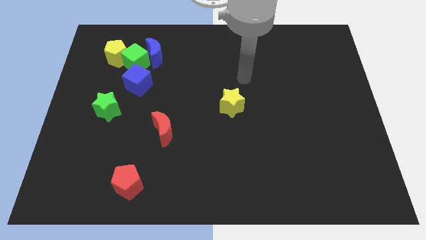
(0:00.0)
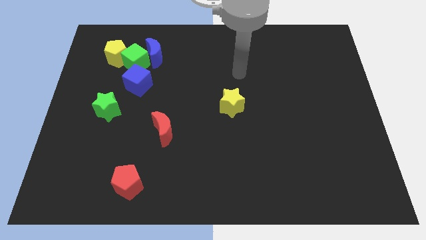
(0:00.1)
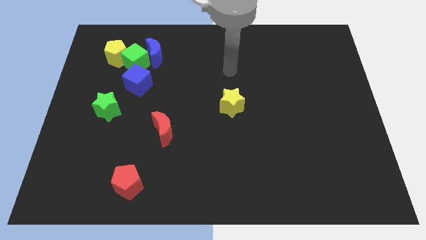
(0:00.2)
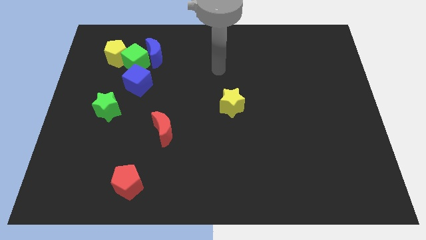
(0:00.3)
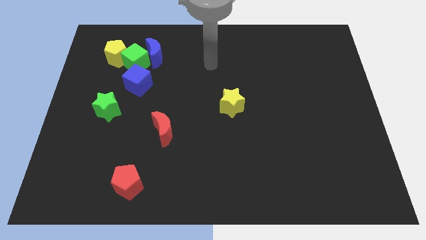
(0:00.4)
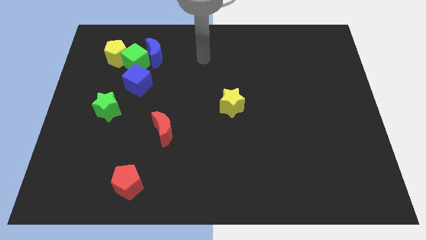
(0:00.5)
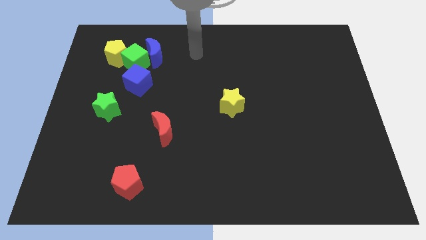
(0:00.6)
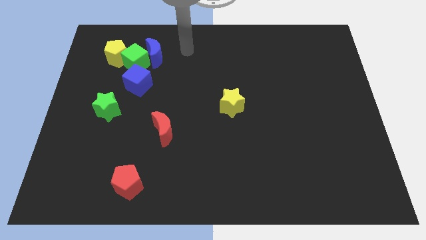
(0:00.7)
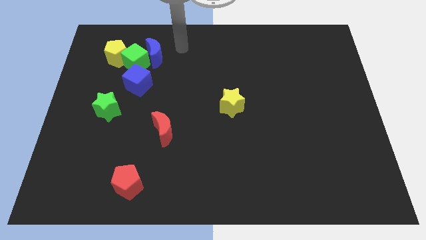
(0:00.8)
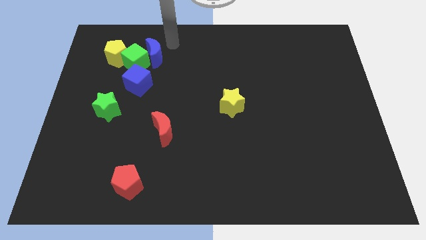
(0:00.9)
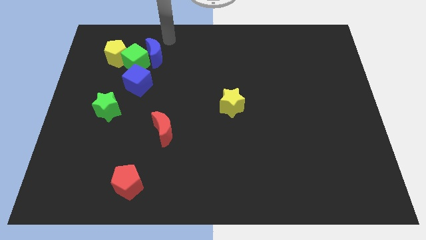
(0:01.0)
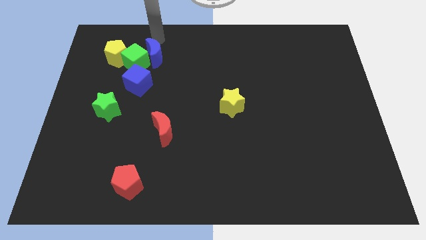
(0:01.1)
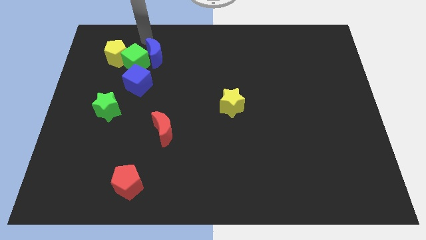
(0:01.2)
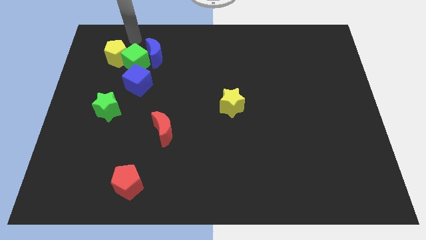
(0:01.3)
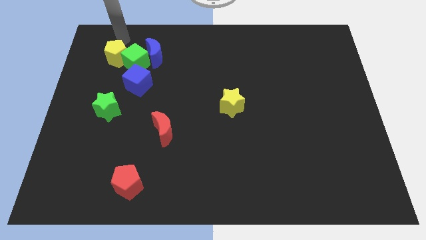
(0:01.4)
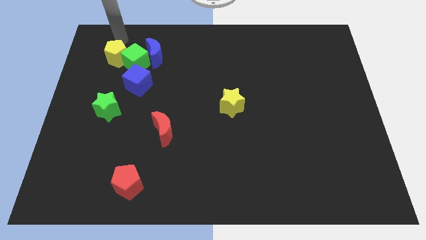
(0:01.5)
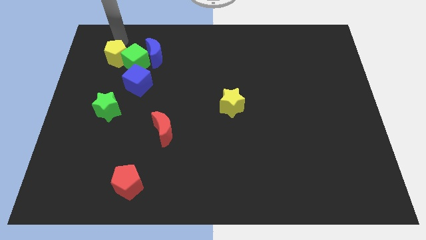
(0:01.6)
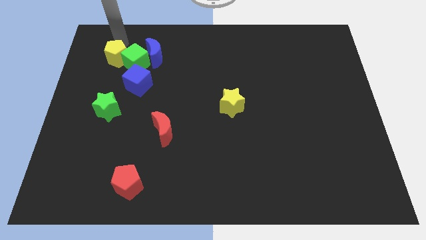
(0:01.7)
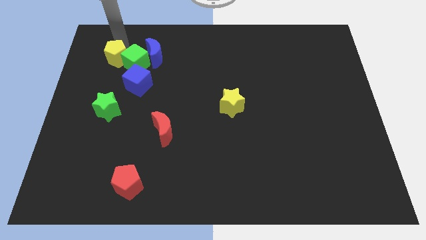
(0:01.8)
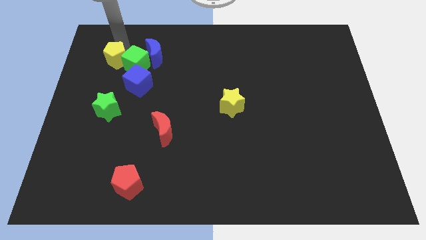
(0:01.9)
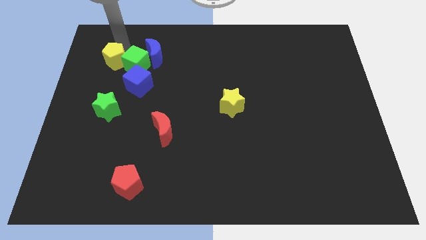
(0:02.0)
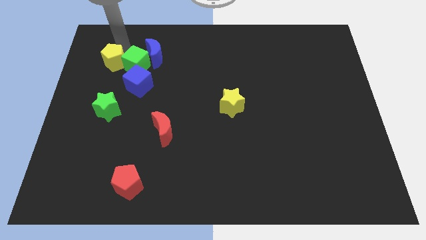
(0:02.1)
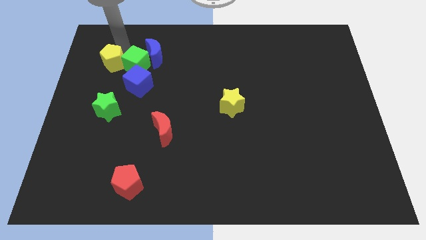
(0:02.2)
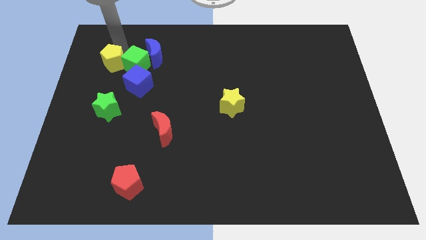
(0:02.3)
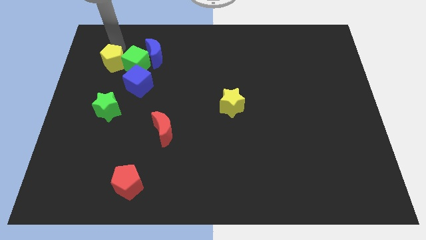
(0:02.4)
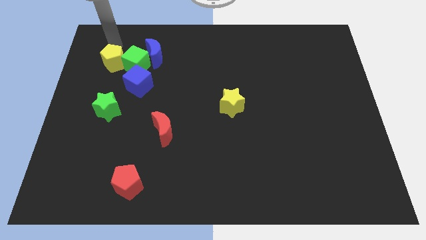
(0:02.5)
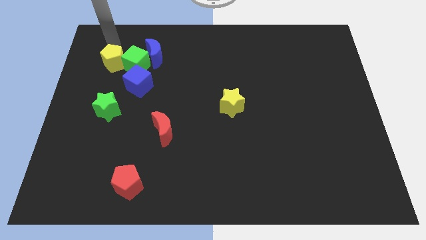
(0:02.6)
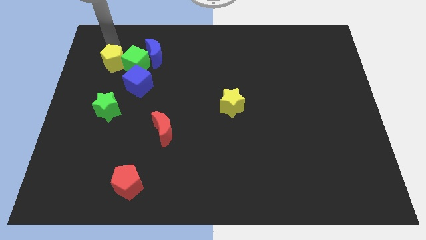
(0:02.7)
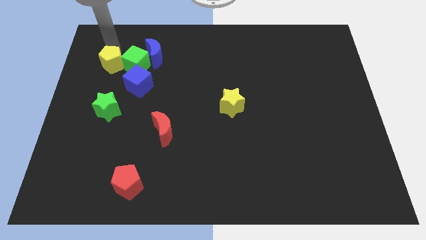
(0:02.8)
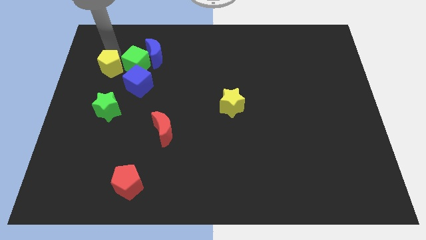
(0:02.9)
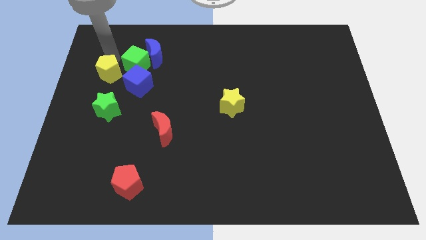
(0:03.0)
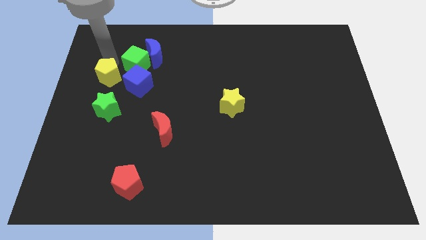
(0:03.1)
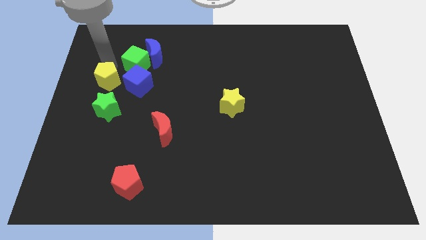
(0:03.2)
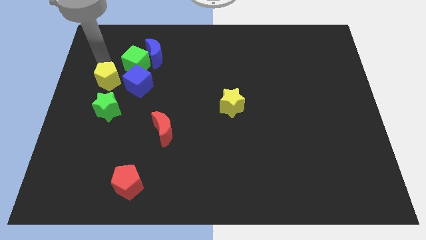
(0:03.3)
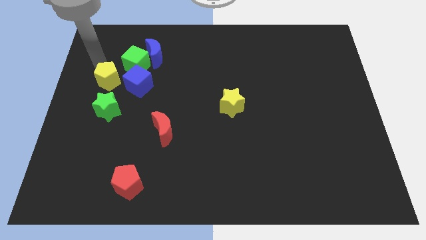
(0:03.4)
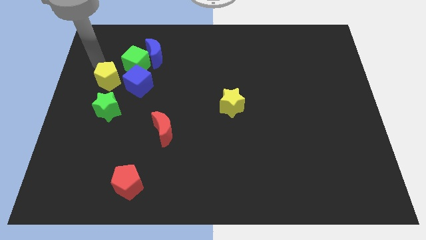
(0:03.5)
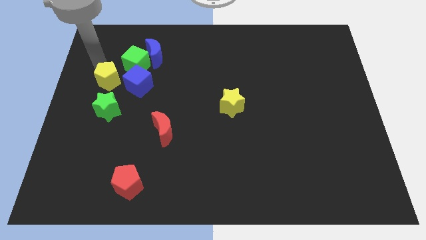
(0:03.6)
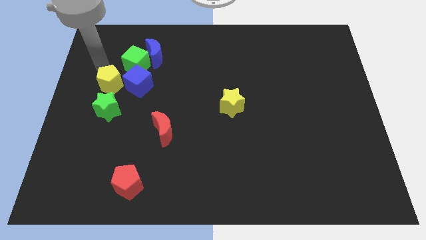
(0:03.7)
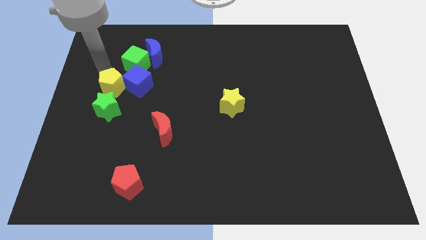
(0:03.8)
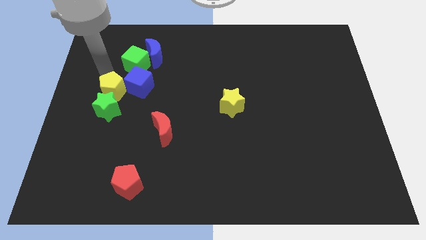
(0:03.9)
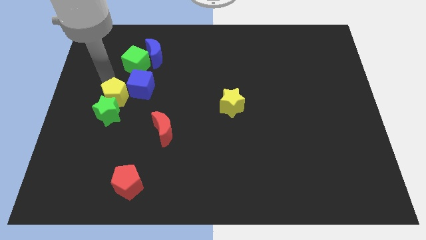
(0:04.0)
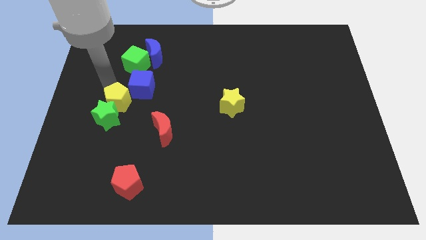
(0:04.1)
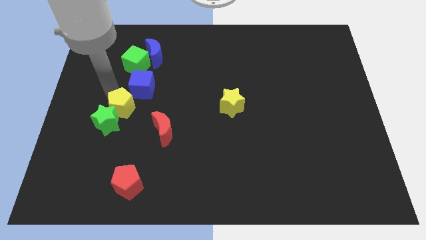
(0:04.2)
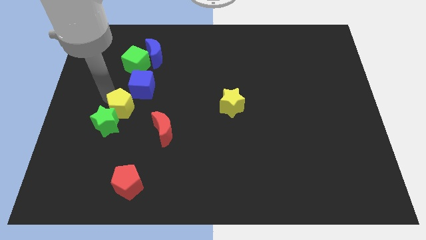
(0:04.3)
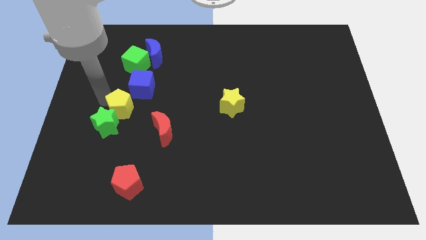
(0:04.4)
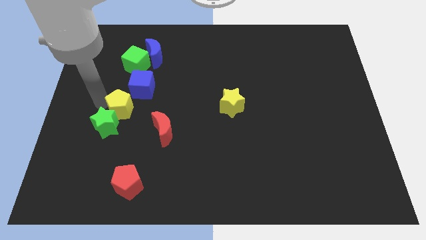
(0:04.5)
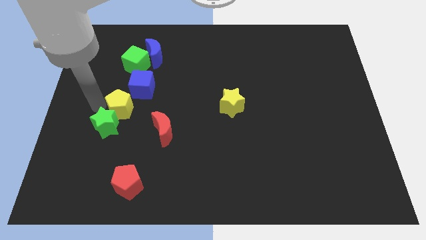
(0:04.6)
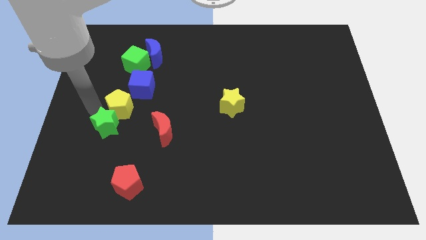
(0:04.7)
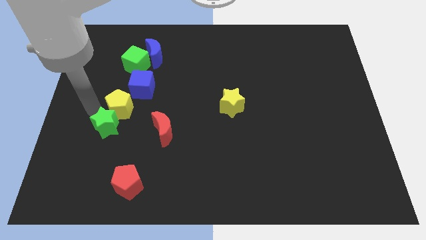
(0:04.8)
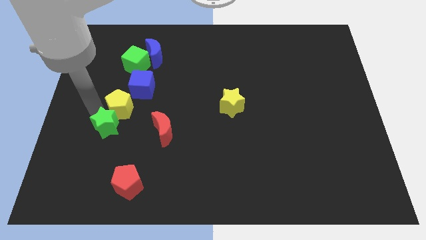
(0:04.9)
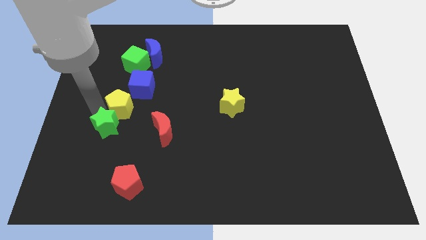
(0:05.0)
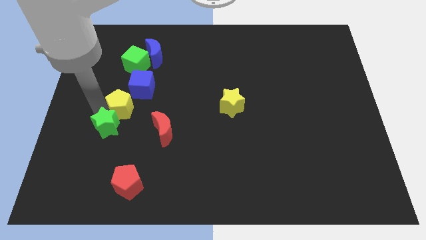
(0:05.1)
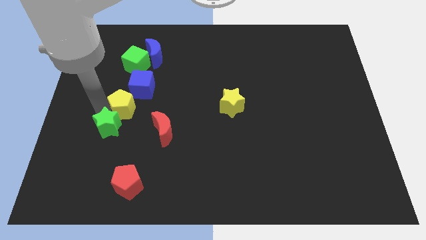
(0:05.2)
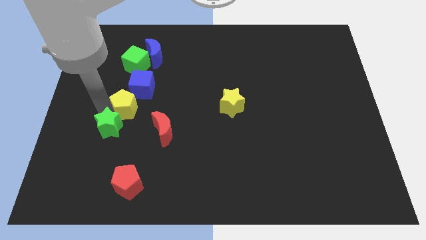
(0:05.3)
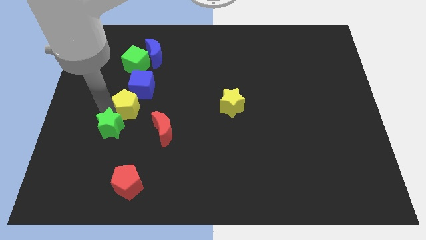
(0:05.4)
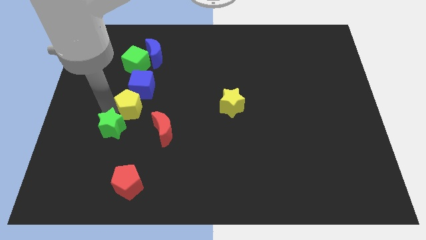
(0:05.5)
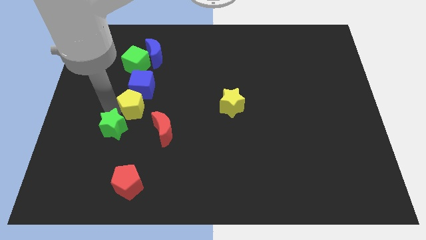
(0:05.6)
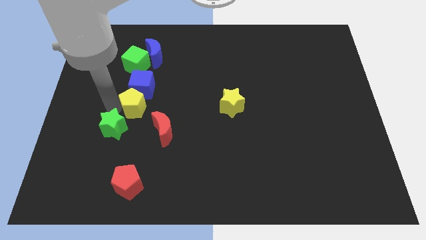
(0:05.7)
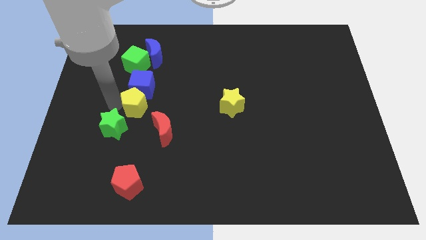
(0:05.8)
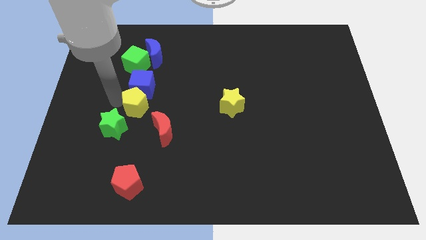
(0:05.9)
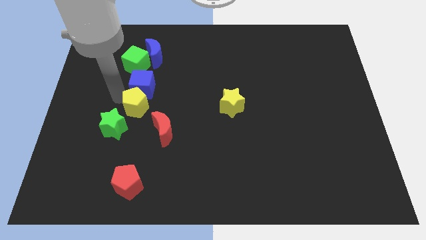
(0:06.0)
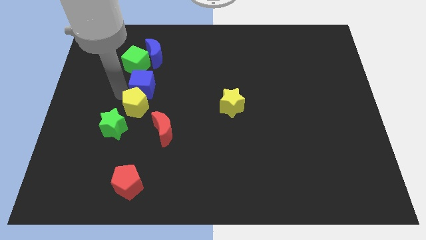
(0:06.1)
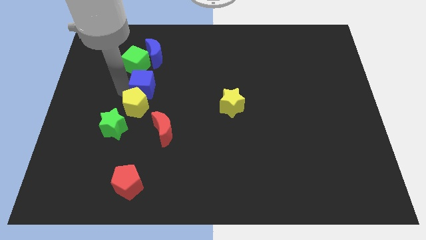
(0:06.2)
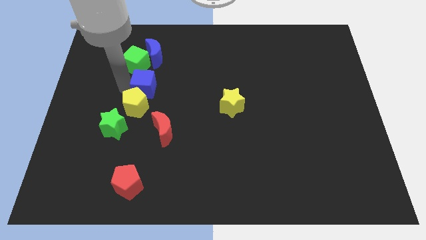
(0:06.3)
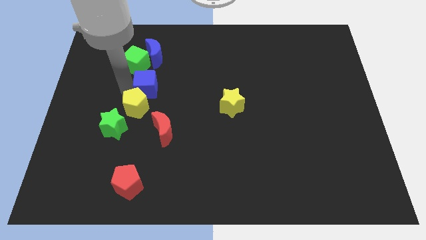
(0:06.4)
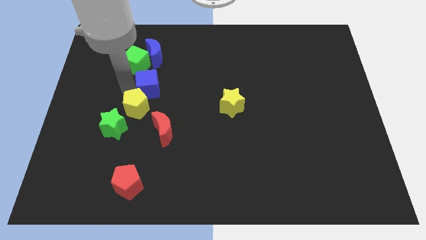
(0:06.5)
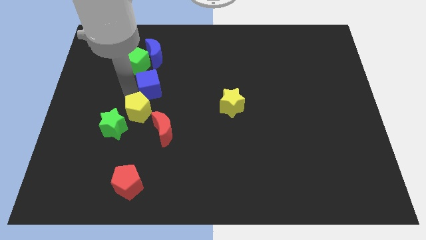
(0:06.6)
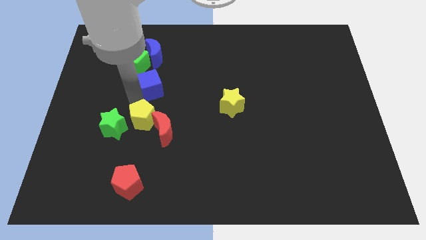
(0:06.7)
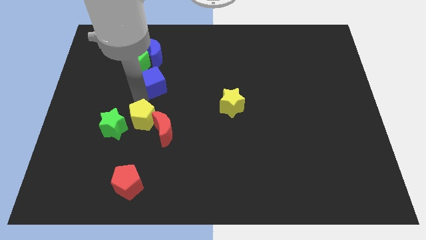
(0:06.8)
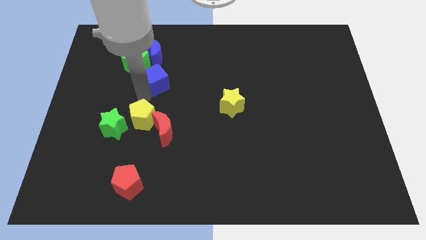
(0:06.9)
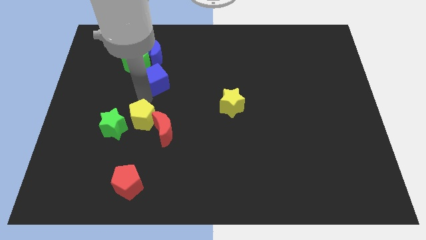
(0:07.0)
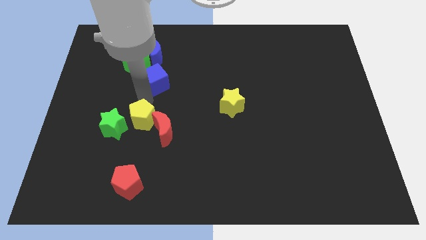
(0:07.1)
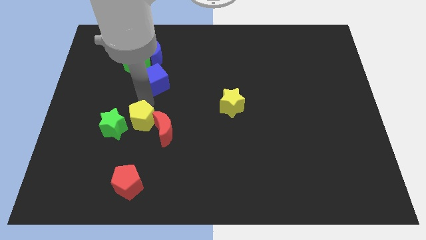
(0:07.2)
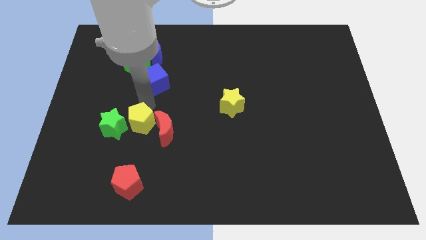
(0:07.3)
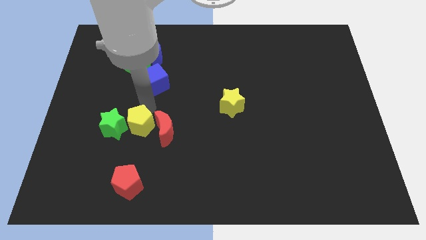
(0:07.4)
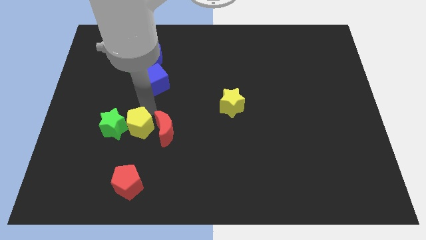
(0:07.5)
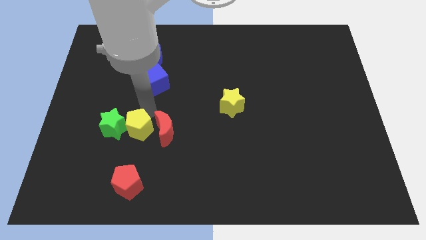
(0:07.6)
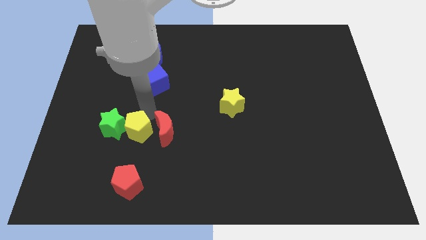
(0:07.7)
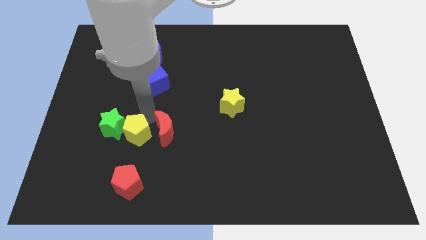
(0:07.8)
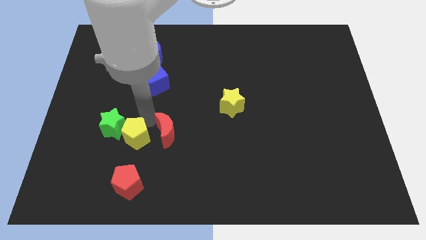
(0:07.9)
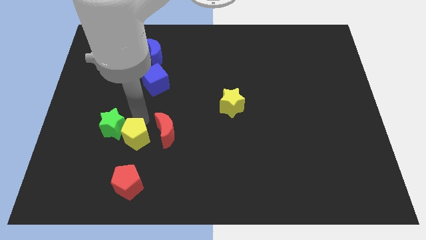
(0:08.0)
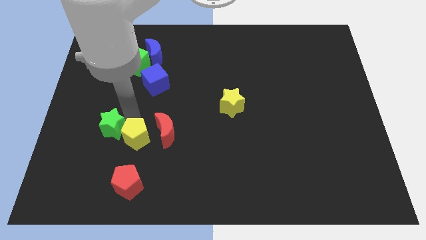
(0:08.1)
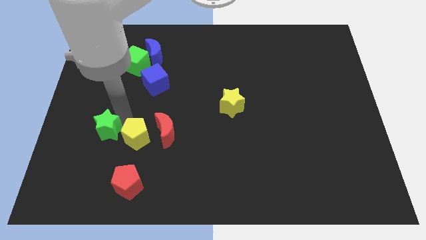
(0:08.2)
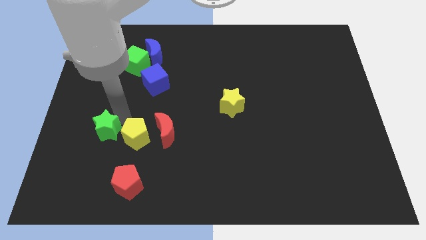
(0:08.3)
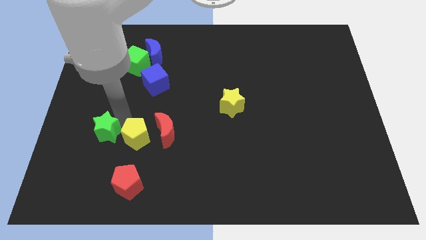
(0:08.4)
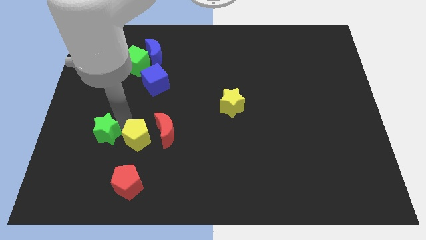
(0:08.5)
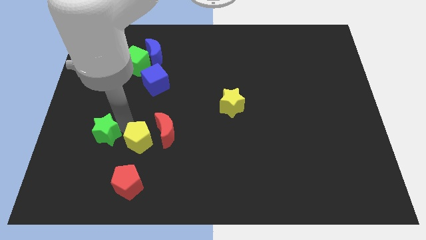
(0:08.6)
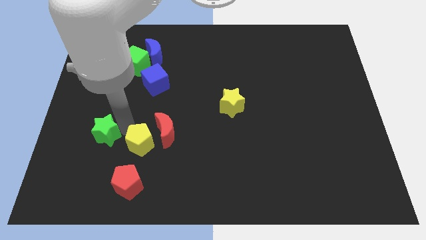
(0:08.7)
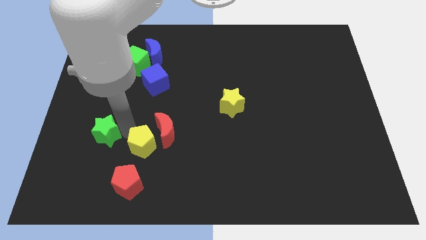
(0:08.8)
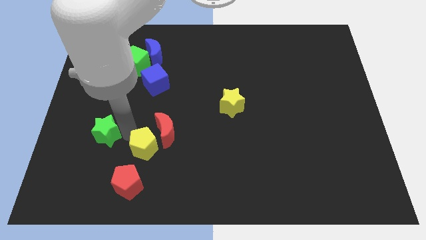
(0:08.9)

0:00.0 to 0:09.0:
put the yellow pentagon to the top right side of the red pentagon
